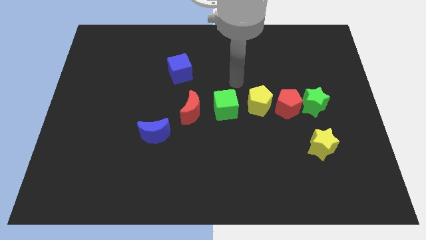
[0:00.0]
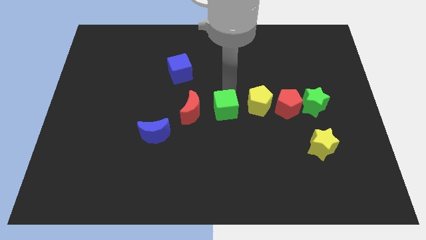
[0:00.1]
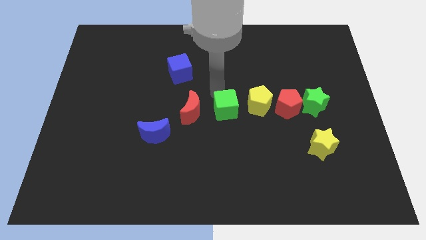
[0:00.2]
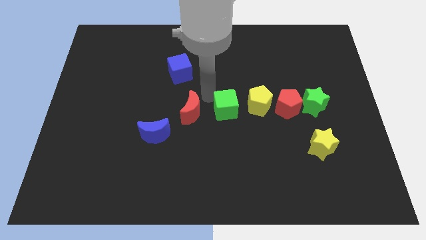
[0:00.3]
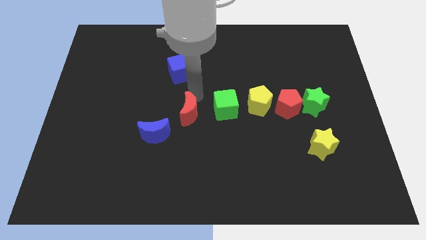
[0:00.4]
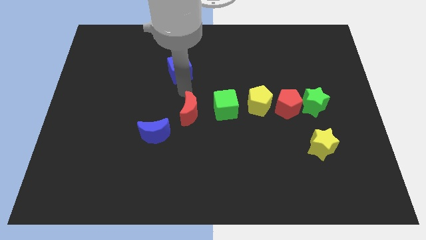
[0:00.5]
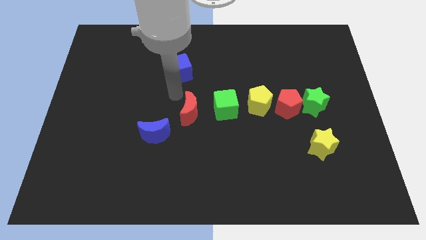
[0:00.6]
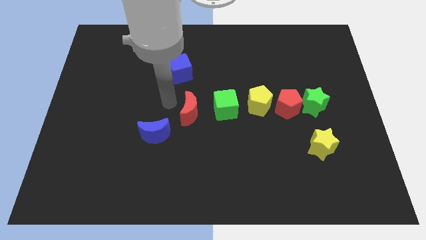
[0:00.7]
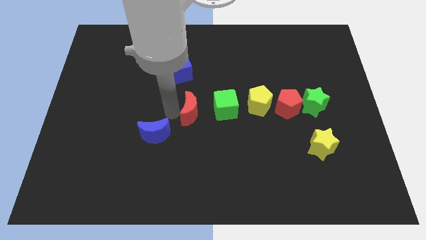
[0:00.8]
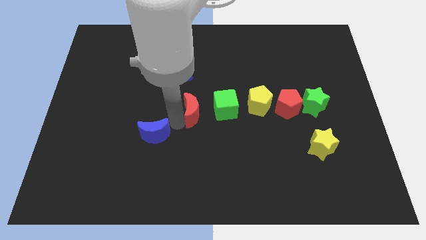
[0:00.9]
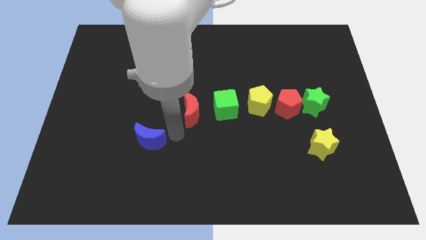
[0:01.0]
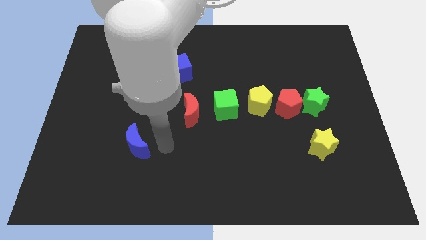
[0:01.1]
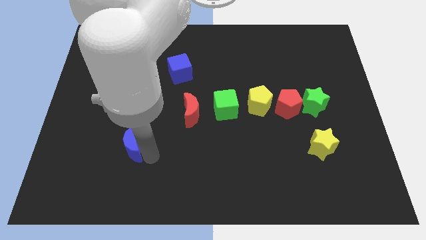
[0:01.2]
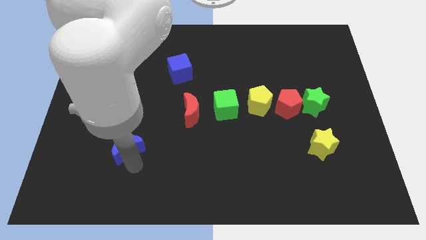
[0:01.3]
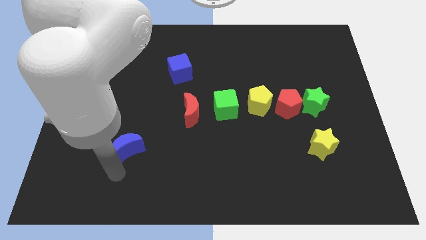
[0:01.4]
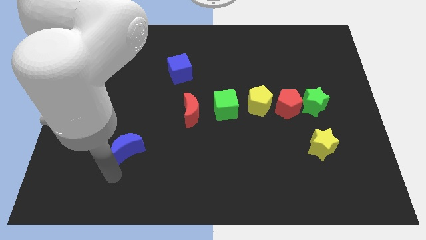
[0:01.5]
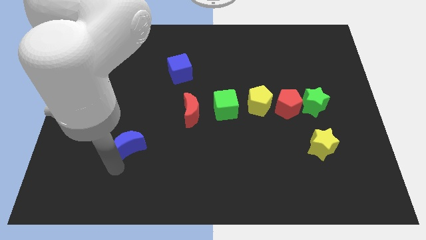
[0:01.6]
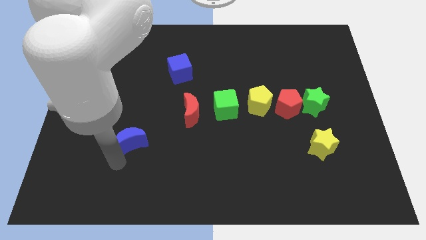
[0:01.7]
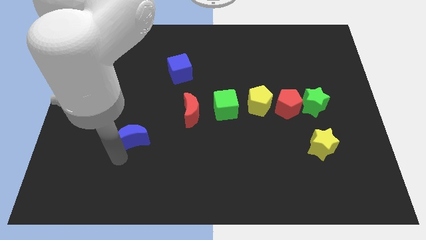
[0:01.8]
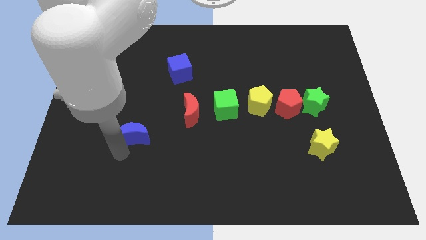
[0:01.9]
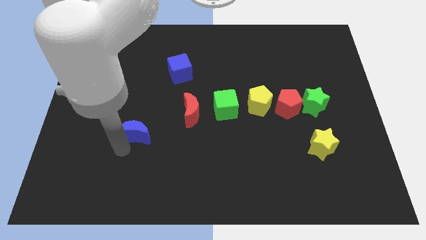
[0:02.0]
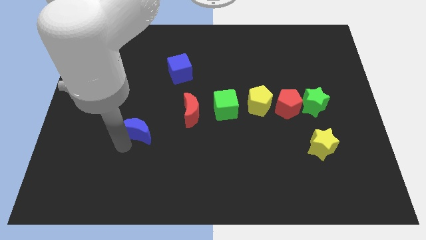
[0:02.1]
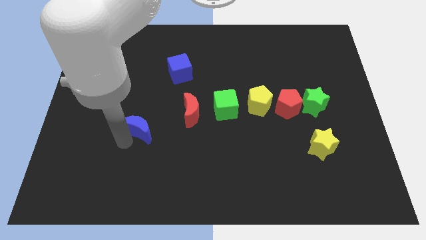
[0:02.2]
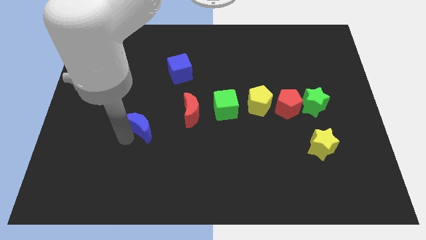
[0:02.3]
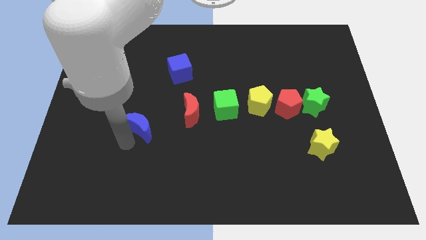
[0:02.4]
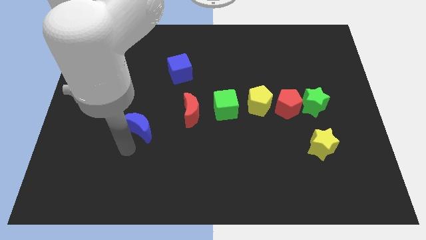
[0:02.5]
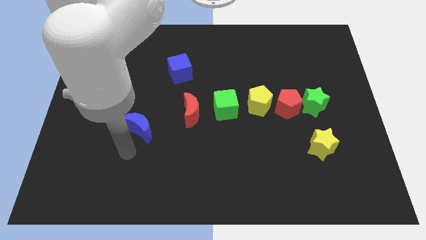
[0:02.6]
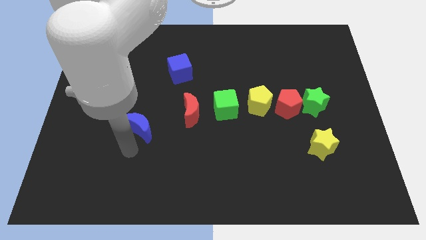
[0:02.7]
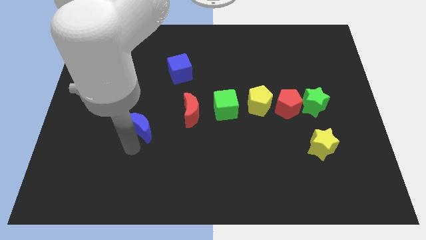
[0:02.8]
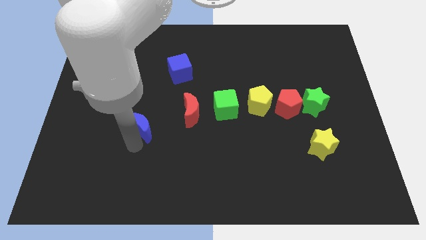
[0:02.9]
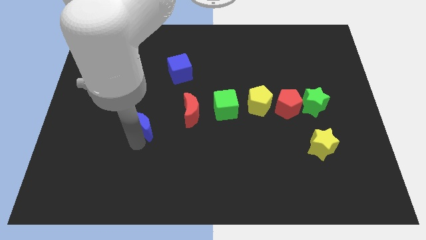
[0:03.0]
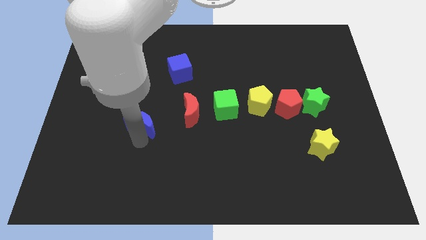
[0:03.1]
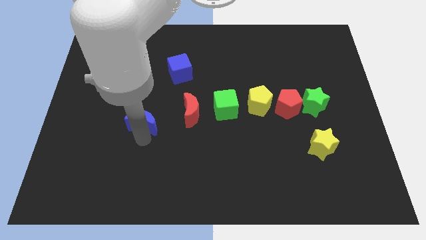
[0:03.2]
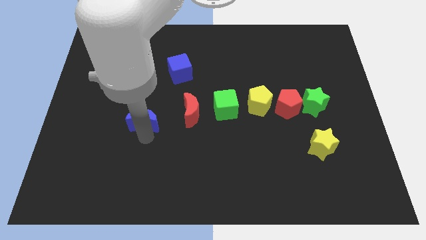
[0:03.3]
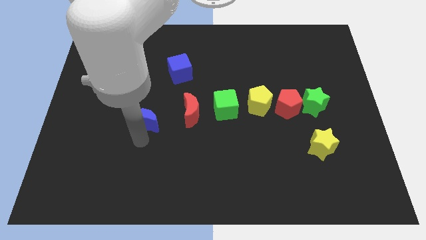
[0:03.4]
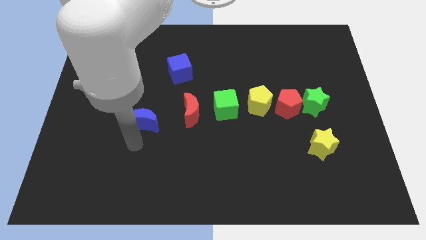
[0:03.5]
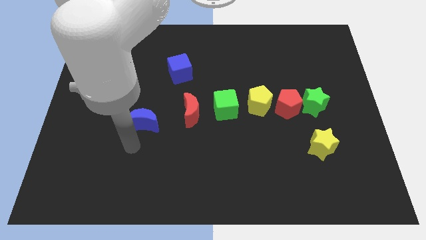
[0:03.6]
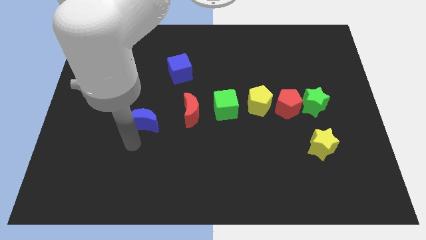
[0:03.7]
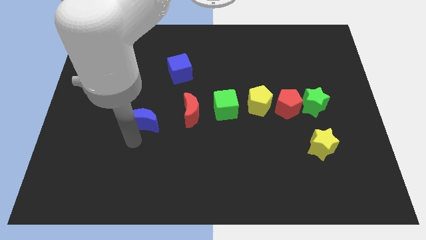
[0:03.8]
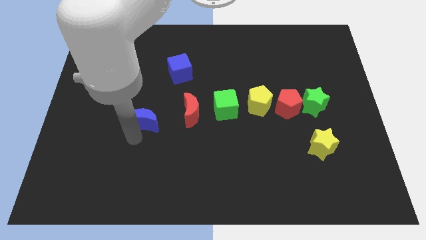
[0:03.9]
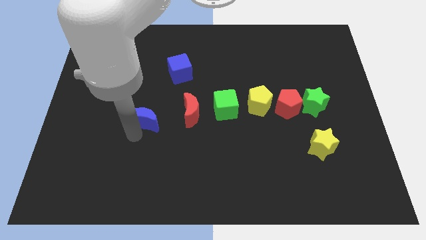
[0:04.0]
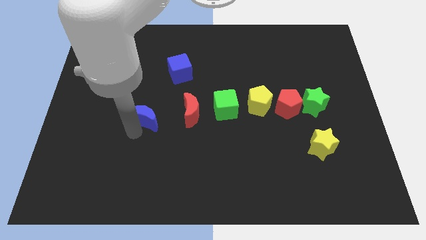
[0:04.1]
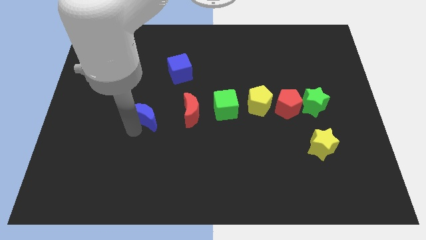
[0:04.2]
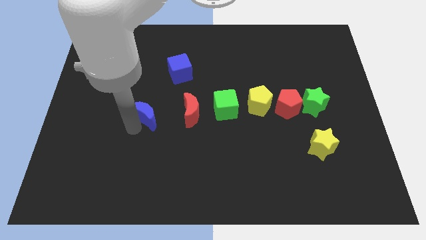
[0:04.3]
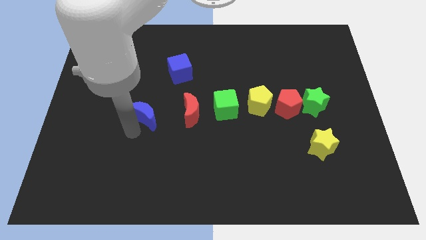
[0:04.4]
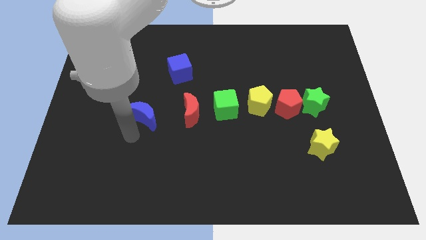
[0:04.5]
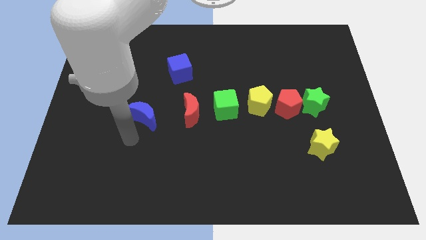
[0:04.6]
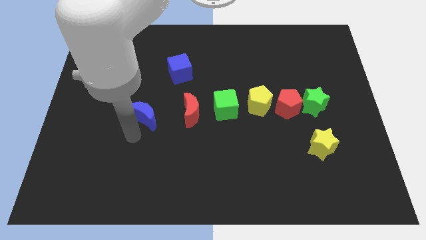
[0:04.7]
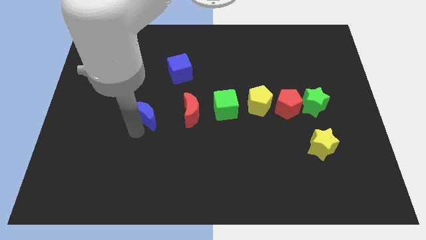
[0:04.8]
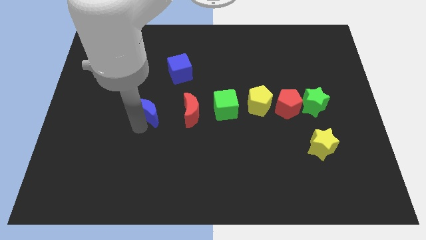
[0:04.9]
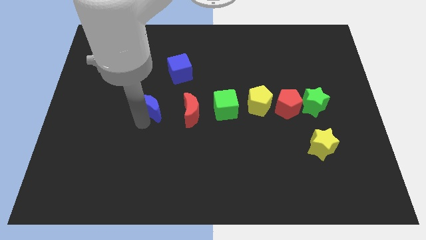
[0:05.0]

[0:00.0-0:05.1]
push the blue moon somewhat upwards

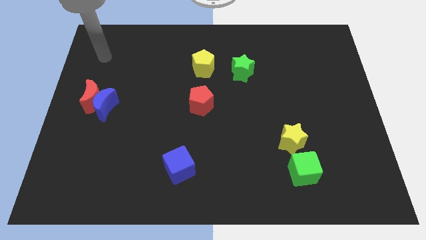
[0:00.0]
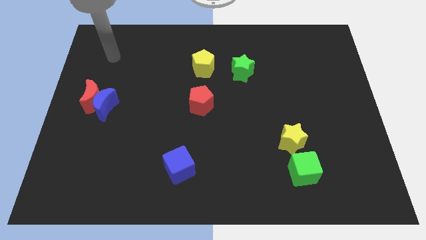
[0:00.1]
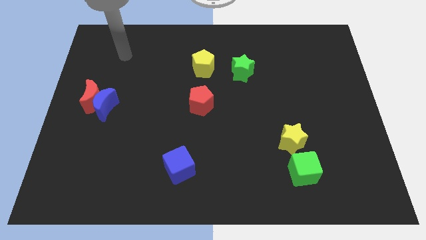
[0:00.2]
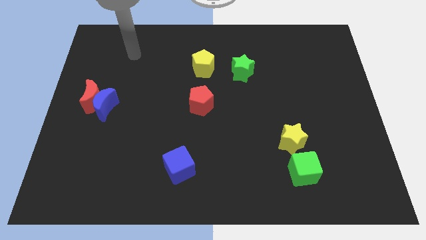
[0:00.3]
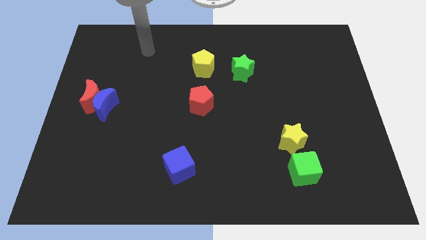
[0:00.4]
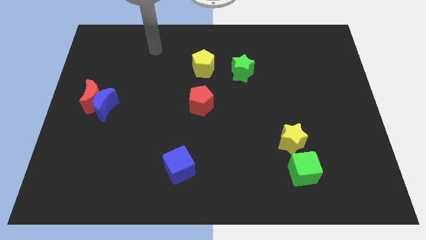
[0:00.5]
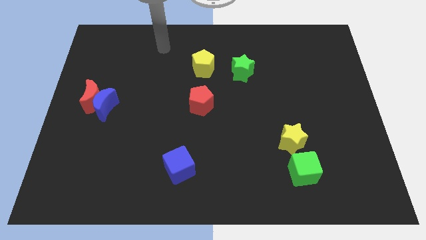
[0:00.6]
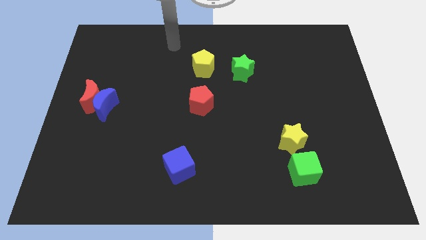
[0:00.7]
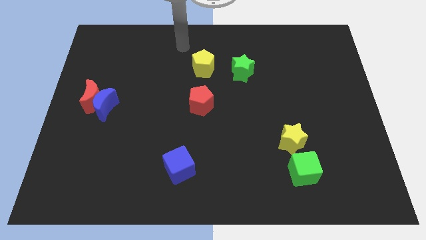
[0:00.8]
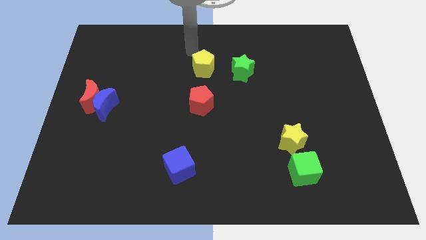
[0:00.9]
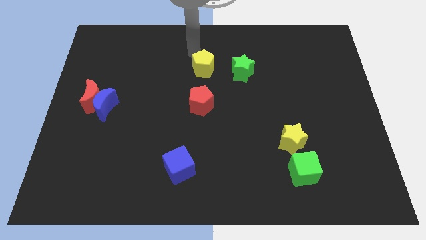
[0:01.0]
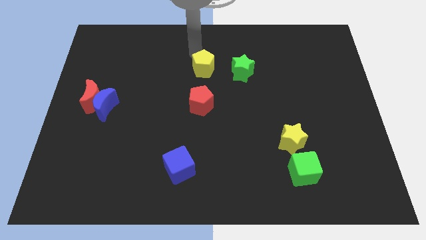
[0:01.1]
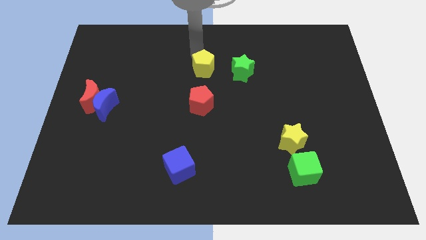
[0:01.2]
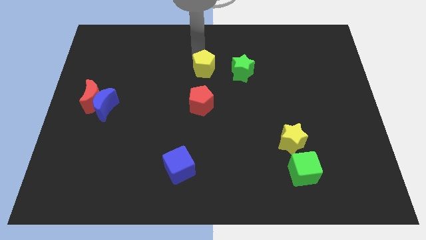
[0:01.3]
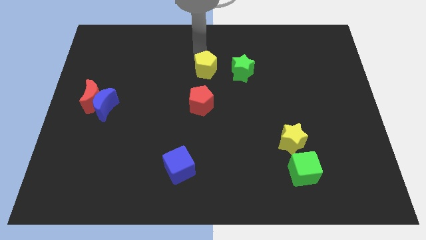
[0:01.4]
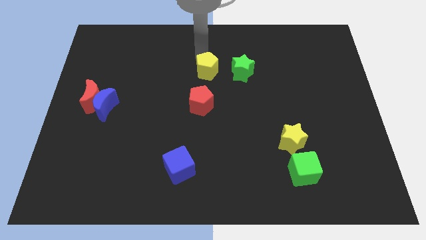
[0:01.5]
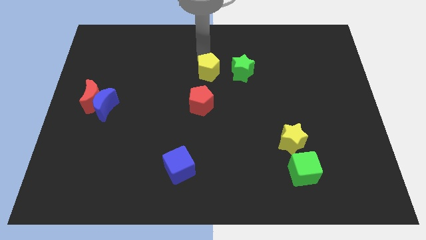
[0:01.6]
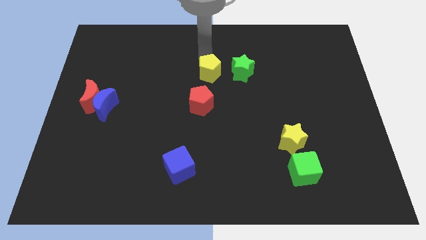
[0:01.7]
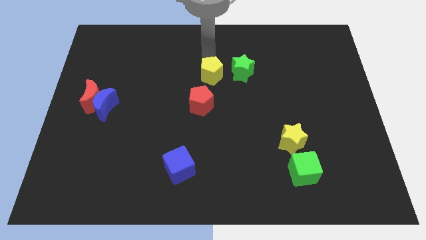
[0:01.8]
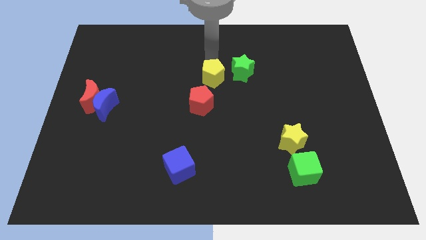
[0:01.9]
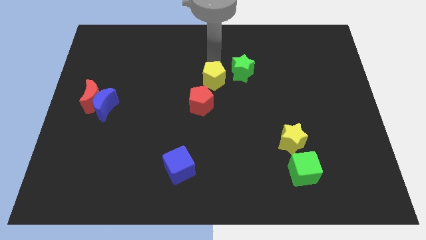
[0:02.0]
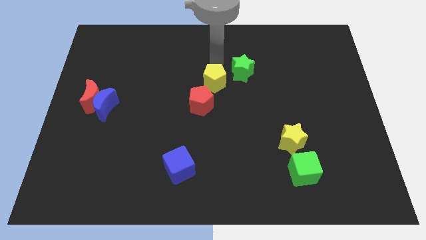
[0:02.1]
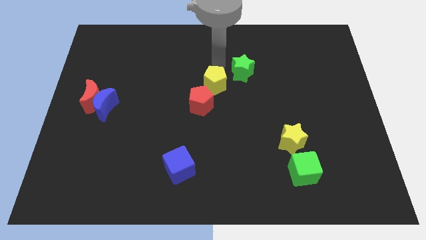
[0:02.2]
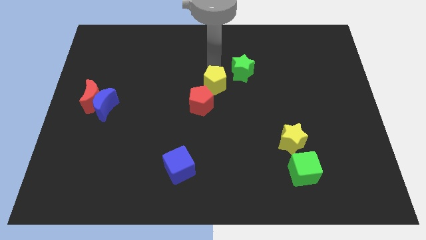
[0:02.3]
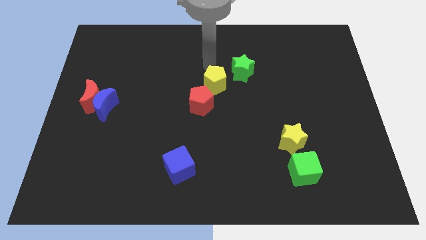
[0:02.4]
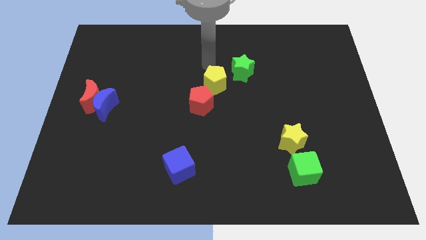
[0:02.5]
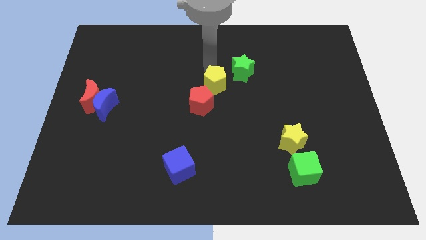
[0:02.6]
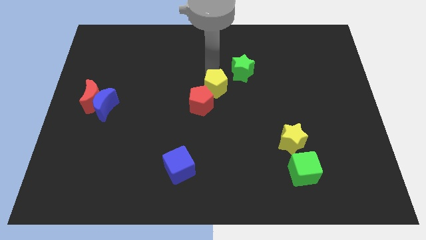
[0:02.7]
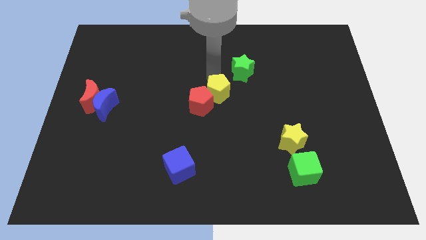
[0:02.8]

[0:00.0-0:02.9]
slightly slide the yellow pentagon down

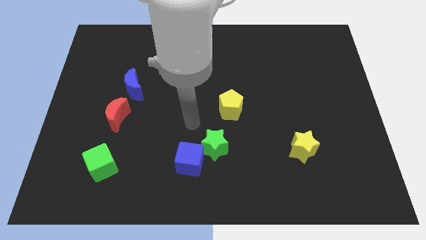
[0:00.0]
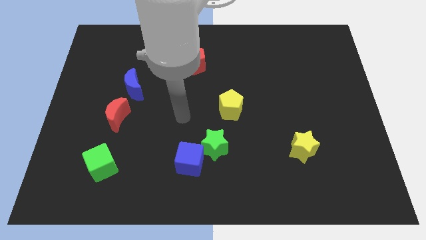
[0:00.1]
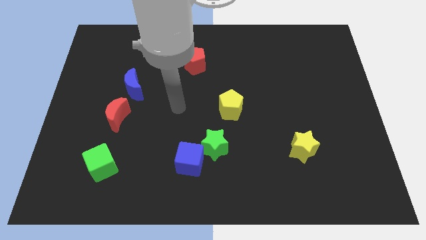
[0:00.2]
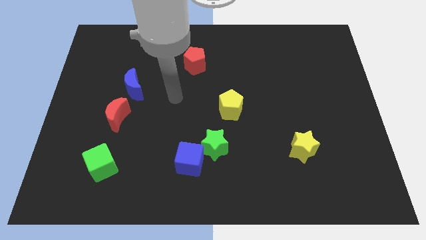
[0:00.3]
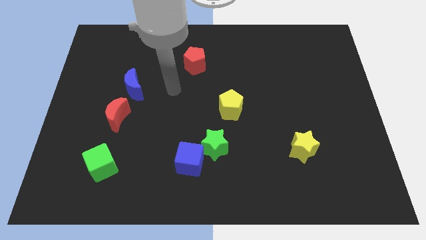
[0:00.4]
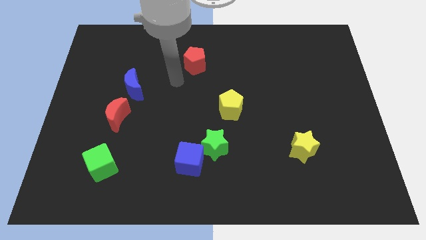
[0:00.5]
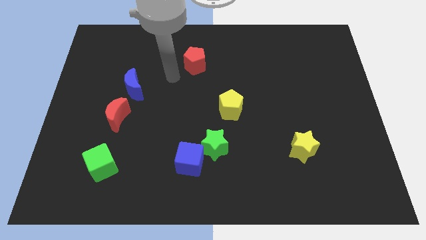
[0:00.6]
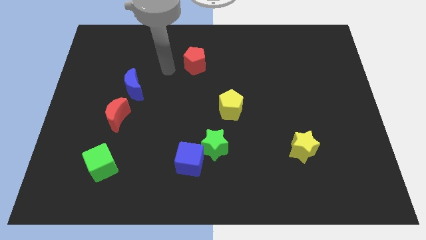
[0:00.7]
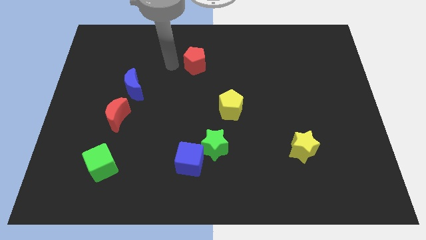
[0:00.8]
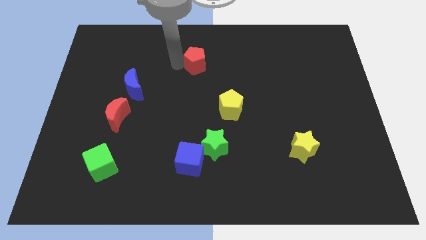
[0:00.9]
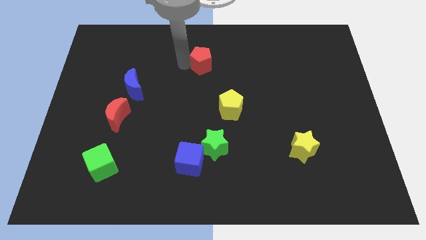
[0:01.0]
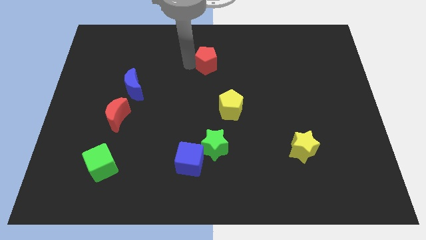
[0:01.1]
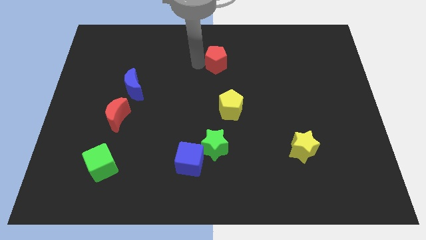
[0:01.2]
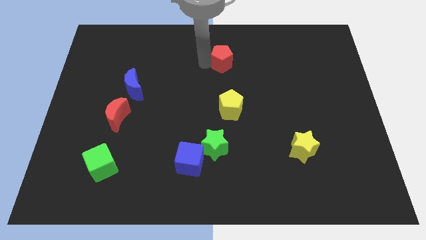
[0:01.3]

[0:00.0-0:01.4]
push the red pentagon a little bit to the right
